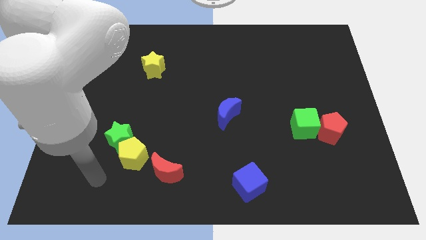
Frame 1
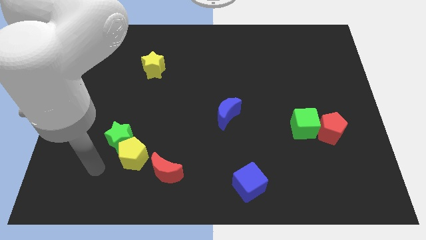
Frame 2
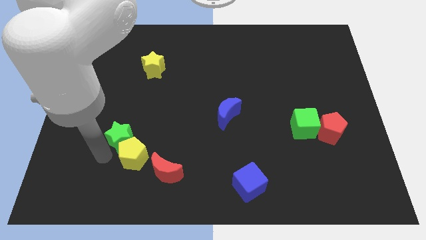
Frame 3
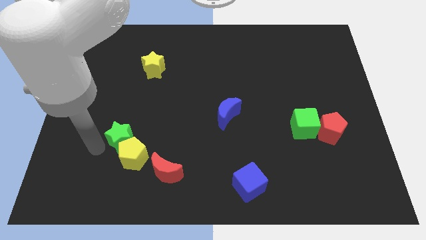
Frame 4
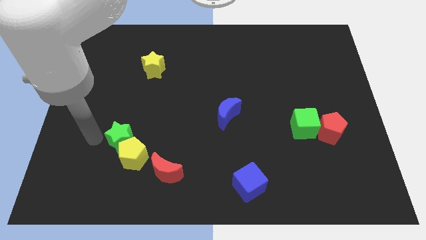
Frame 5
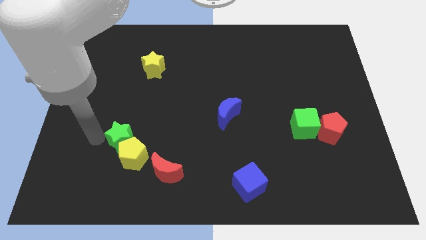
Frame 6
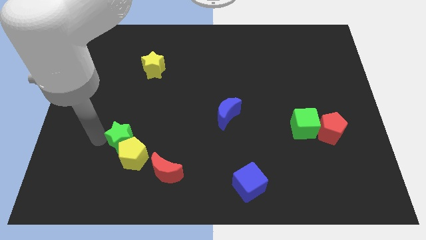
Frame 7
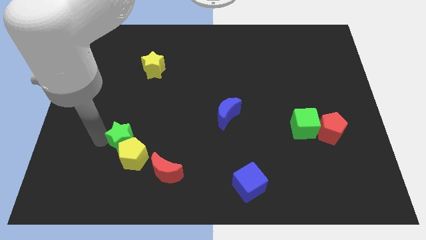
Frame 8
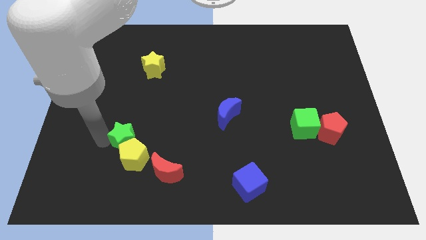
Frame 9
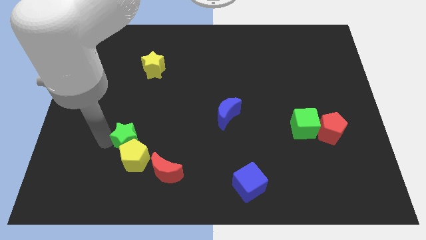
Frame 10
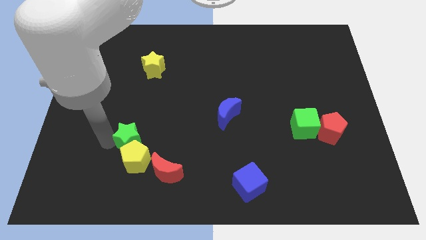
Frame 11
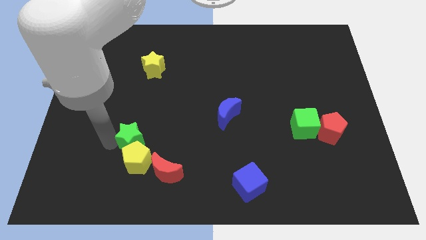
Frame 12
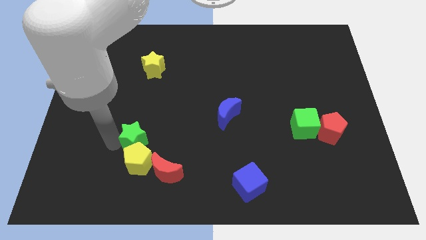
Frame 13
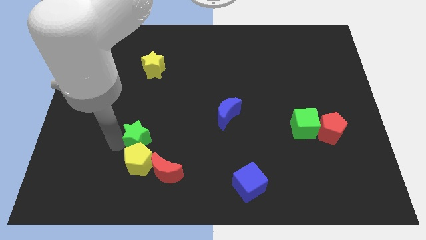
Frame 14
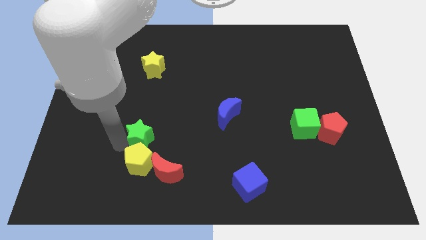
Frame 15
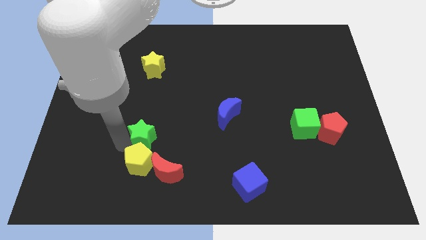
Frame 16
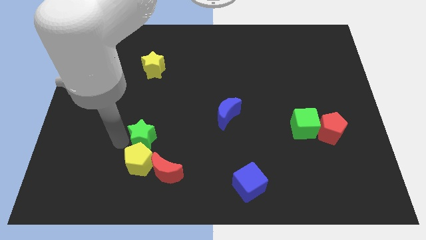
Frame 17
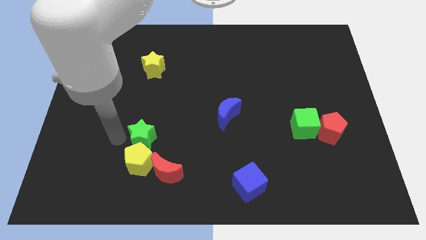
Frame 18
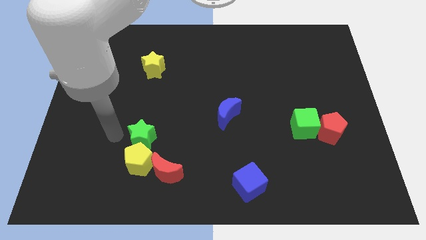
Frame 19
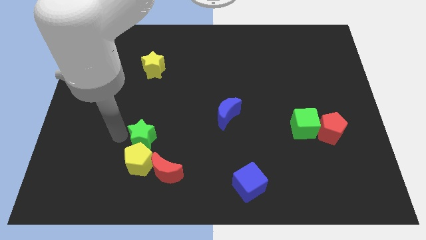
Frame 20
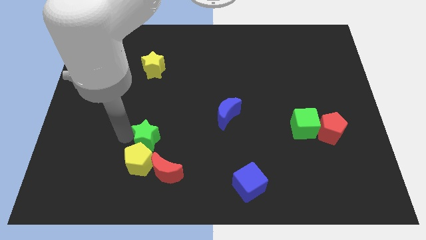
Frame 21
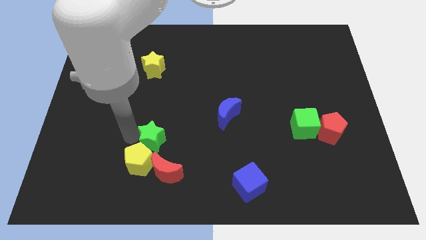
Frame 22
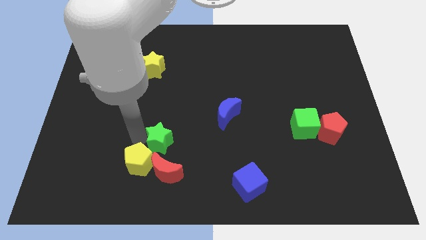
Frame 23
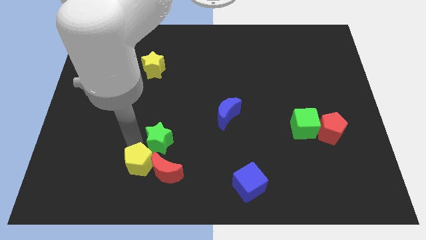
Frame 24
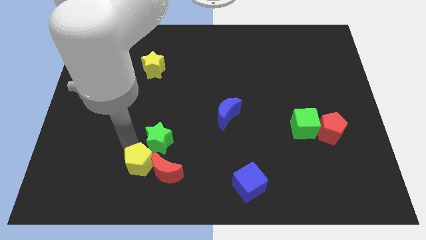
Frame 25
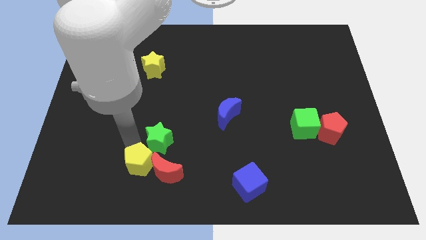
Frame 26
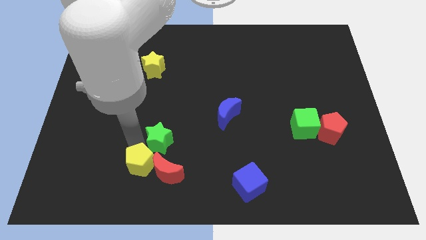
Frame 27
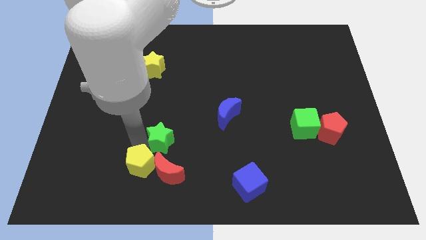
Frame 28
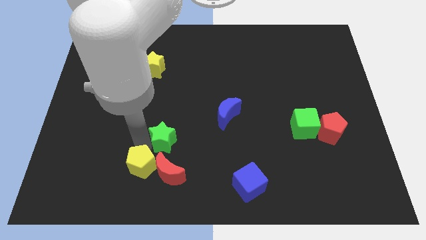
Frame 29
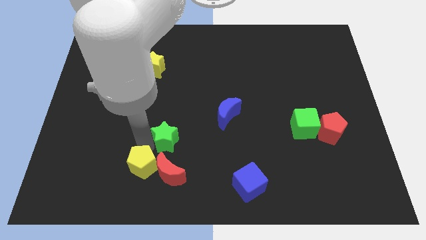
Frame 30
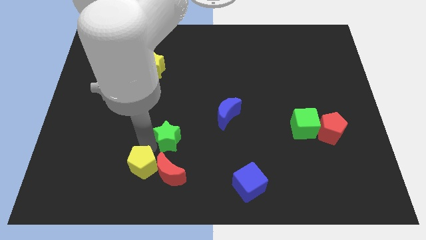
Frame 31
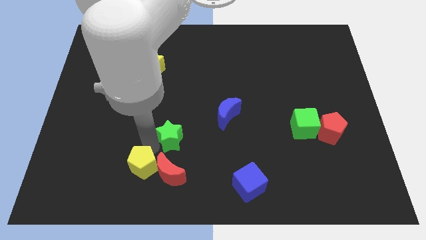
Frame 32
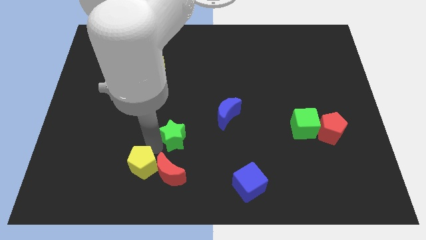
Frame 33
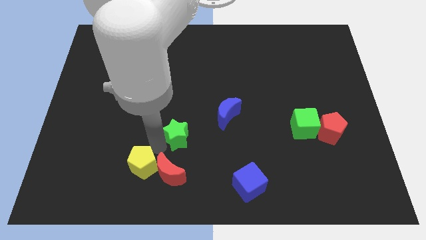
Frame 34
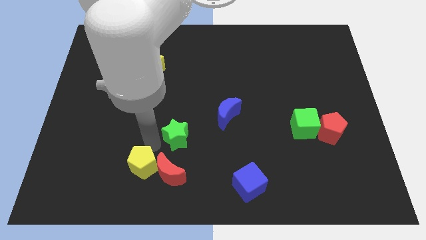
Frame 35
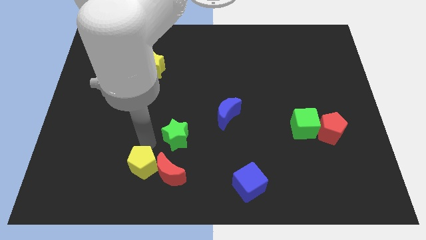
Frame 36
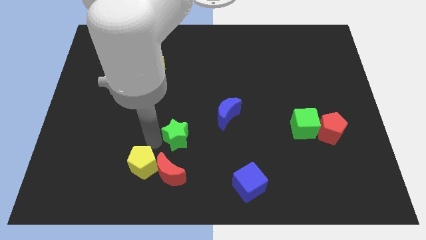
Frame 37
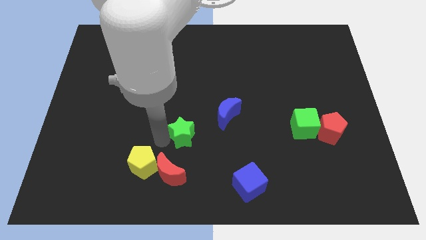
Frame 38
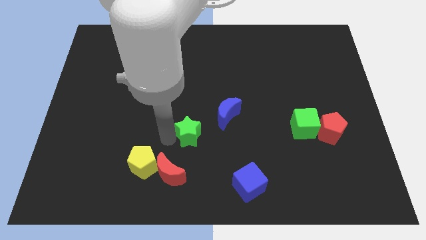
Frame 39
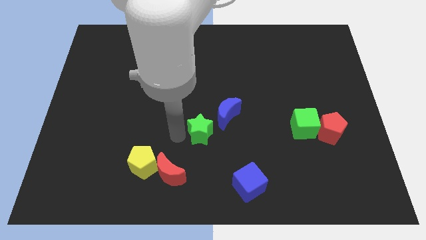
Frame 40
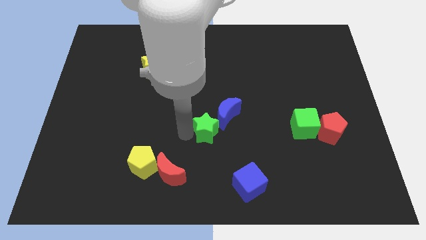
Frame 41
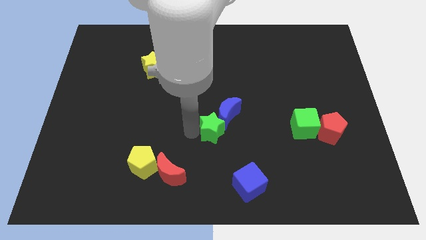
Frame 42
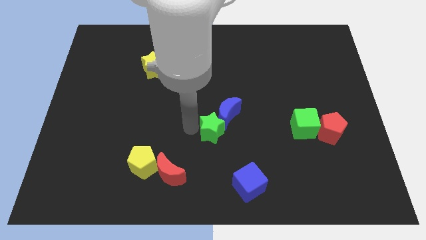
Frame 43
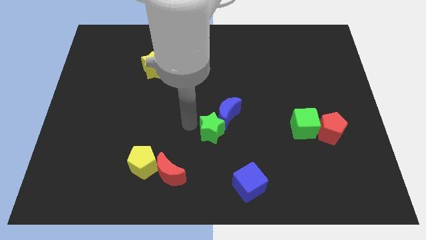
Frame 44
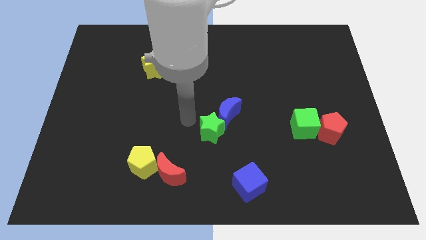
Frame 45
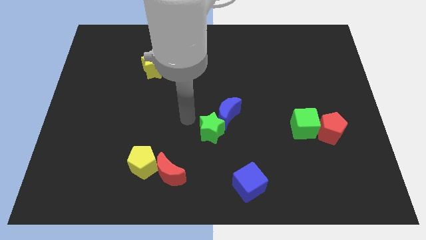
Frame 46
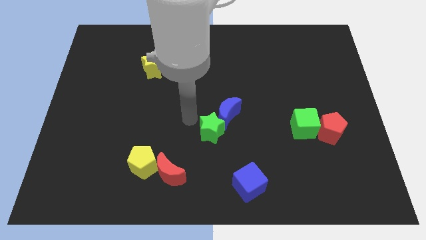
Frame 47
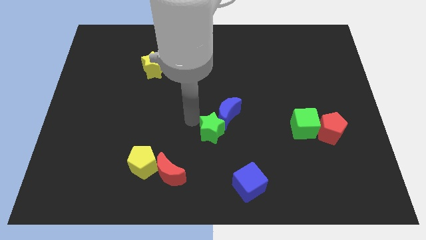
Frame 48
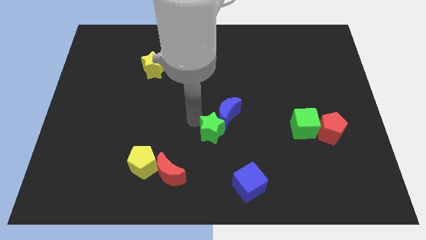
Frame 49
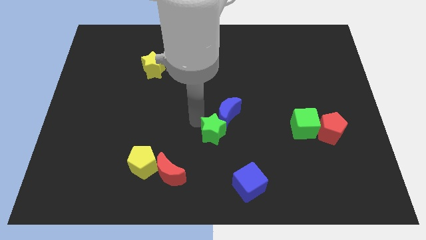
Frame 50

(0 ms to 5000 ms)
slide the green star to the right

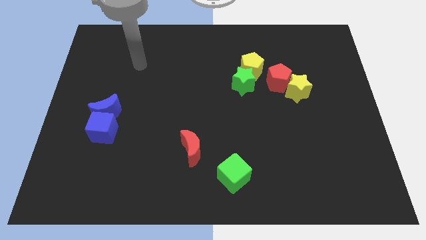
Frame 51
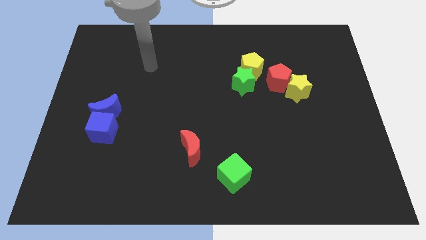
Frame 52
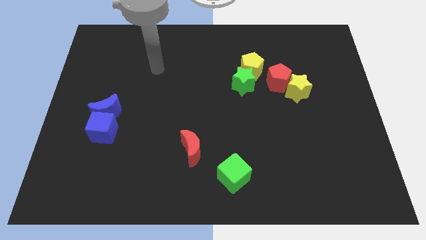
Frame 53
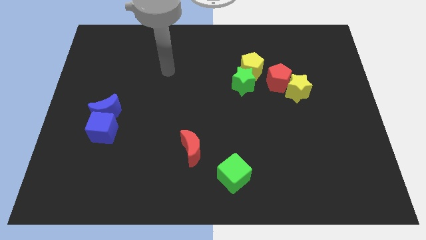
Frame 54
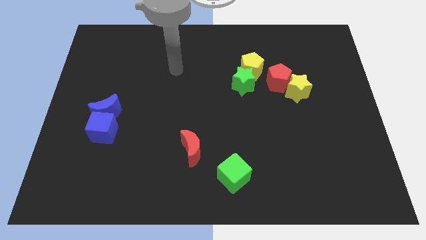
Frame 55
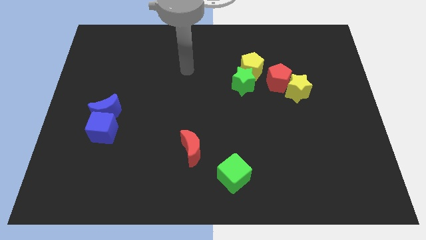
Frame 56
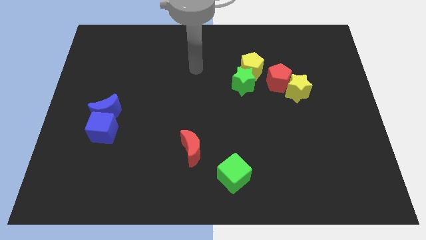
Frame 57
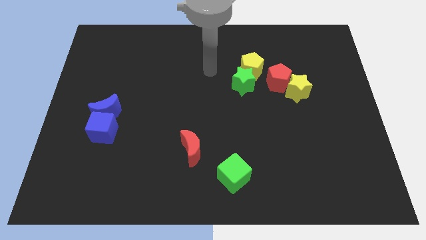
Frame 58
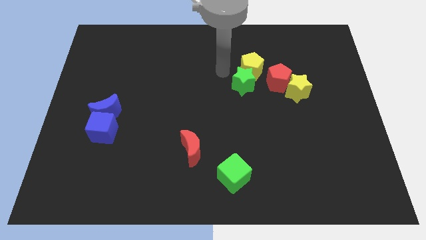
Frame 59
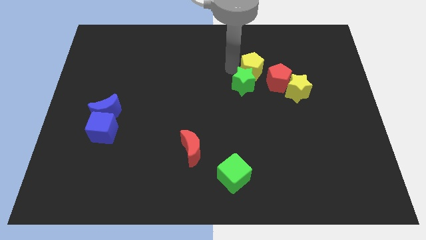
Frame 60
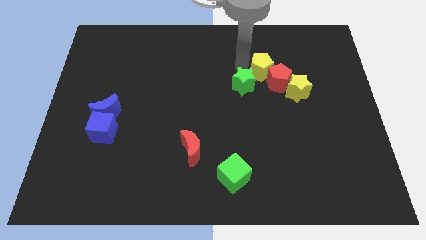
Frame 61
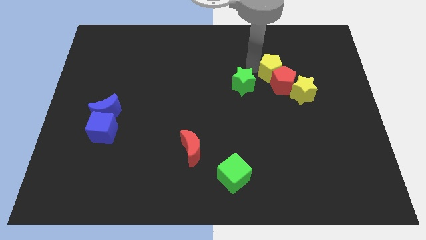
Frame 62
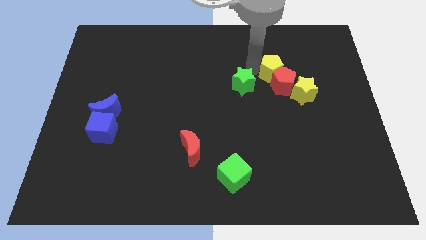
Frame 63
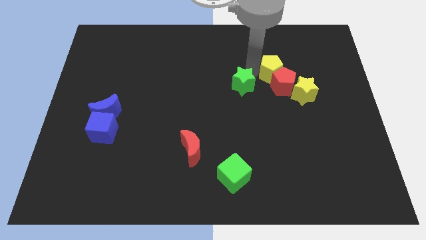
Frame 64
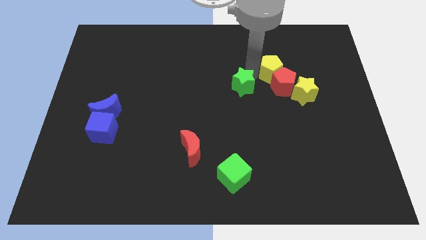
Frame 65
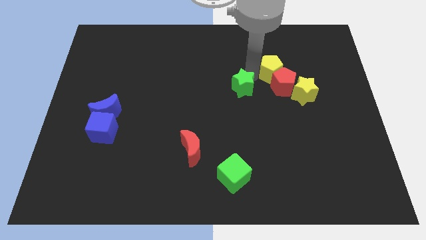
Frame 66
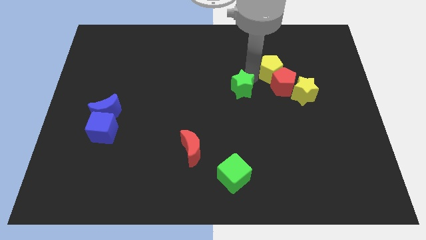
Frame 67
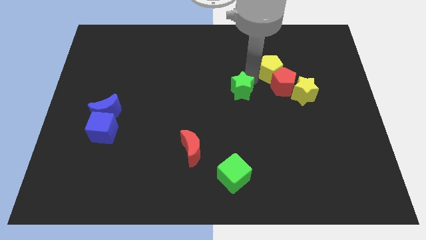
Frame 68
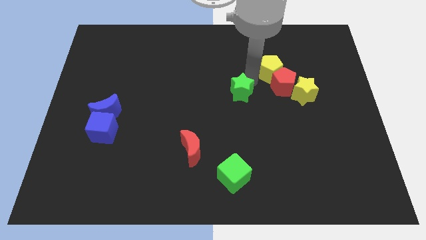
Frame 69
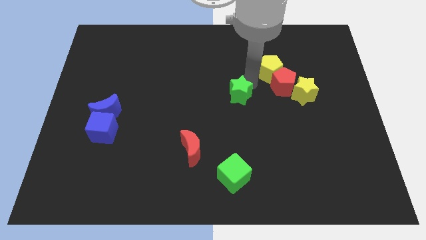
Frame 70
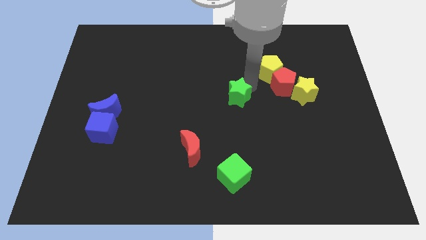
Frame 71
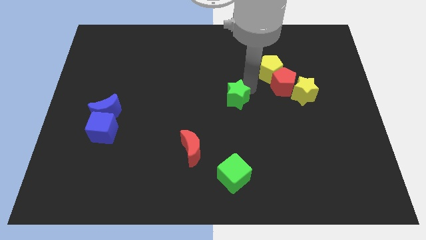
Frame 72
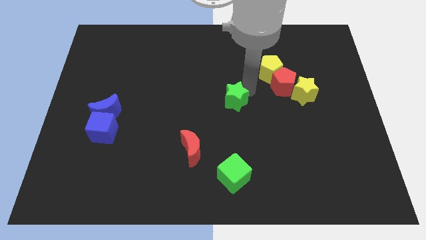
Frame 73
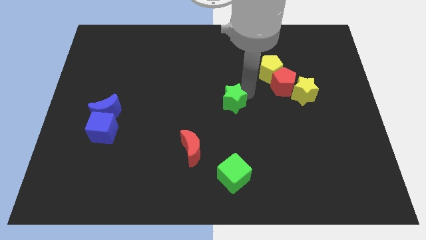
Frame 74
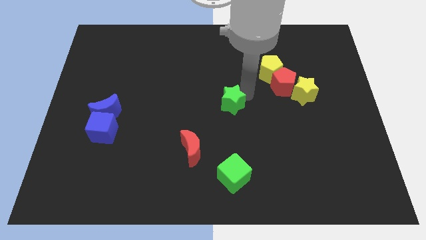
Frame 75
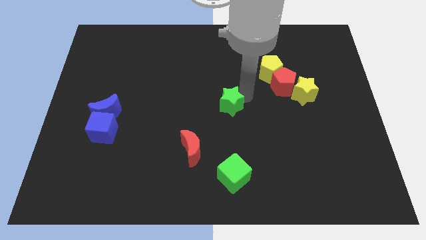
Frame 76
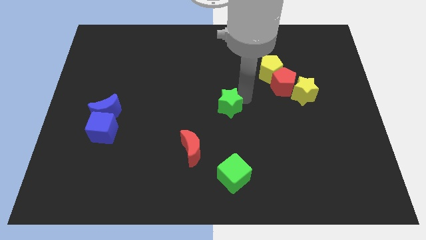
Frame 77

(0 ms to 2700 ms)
move the green star a little diagonally downwards and left

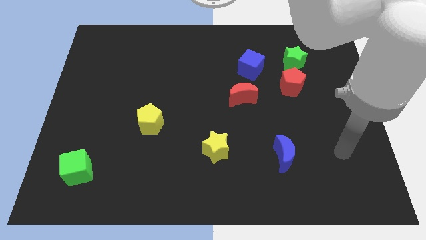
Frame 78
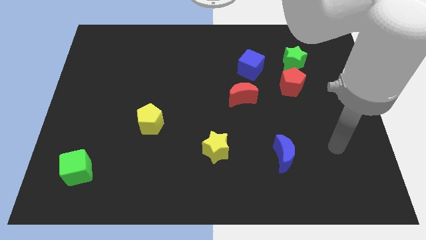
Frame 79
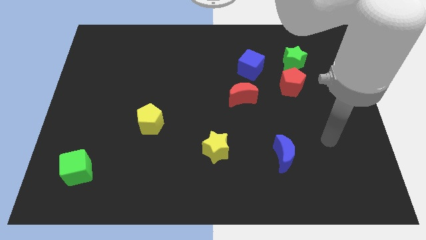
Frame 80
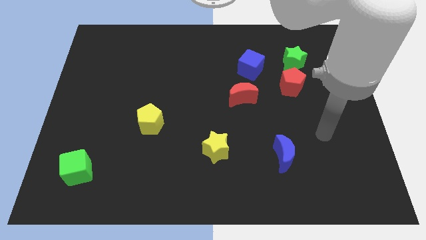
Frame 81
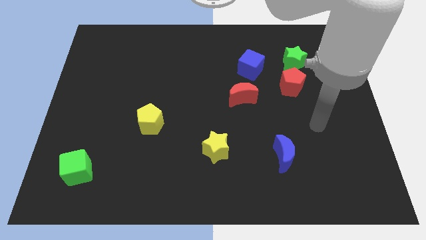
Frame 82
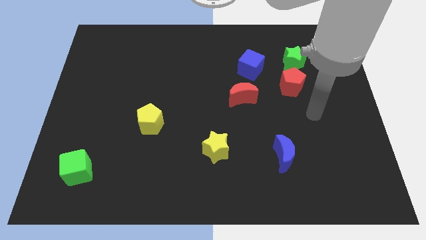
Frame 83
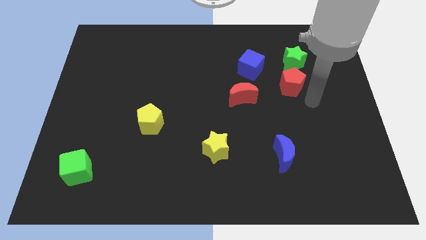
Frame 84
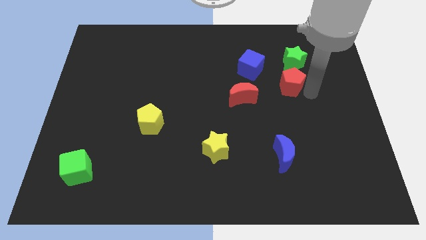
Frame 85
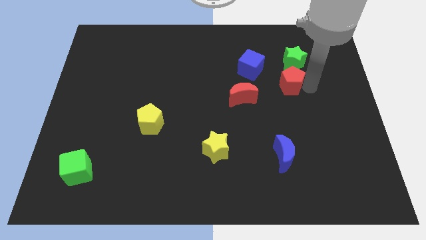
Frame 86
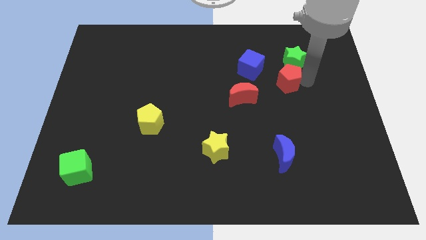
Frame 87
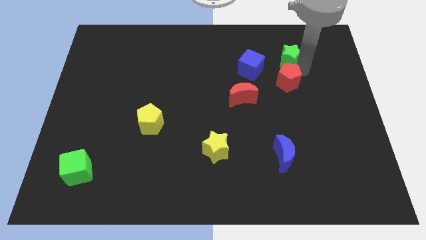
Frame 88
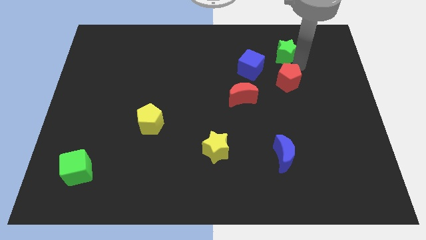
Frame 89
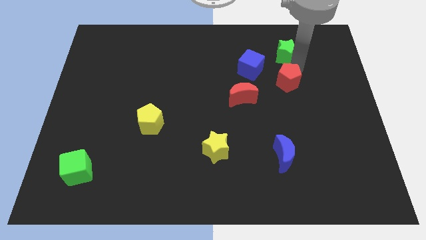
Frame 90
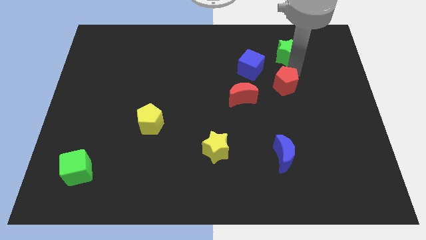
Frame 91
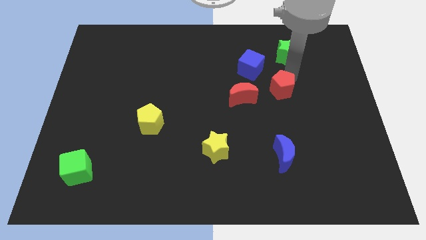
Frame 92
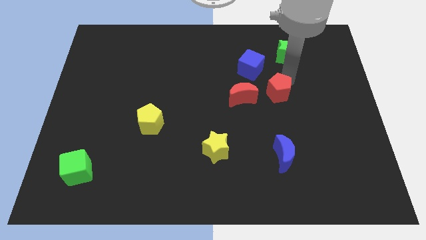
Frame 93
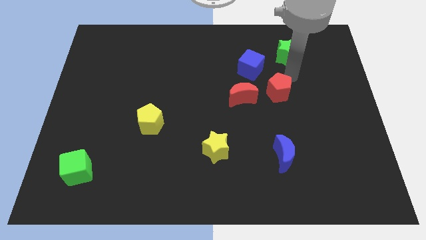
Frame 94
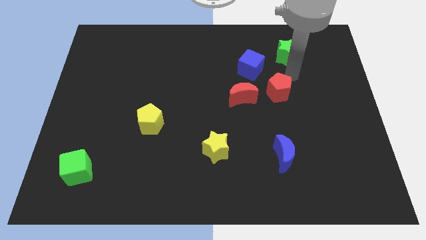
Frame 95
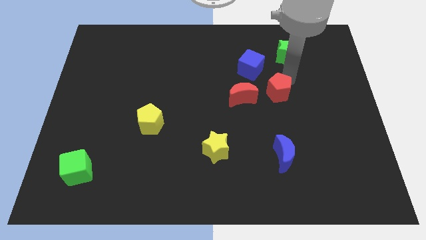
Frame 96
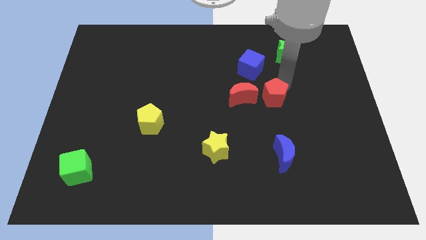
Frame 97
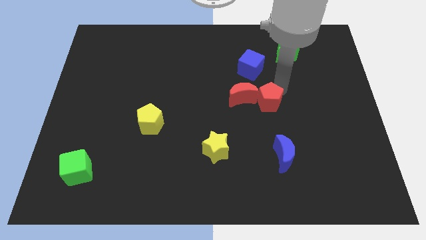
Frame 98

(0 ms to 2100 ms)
slide the red pentagon diagonally down and left slightly
